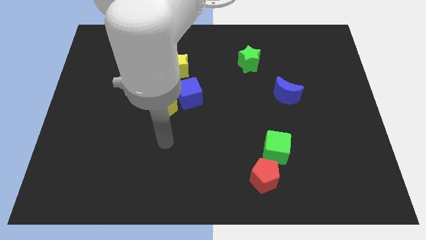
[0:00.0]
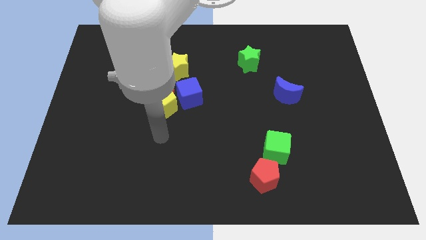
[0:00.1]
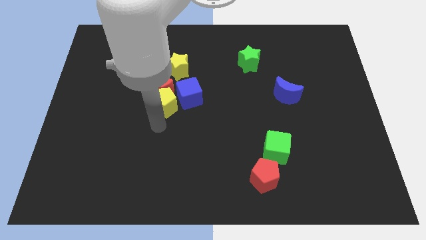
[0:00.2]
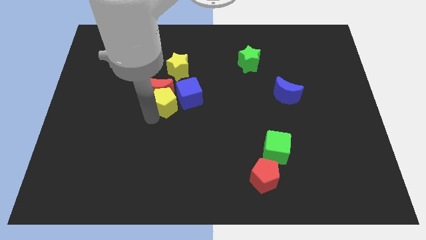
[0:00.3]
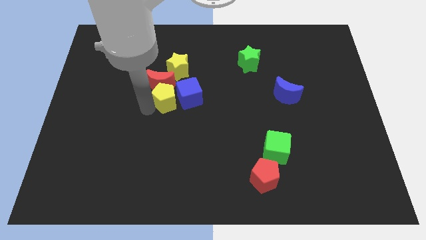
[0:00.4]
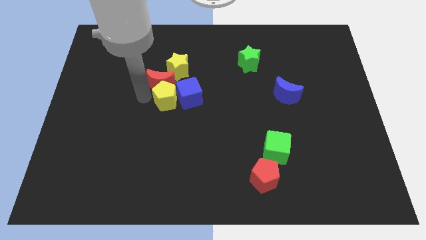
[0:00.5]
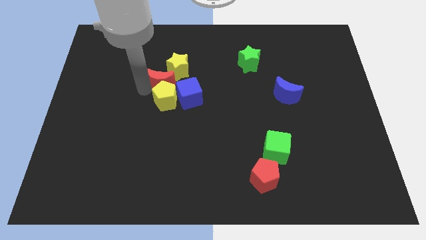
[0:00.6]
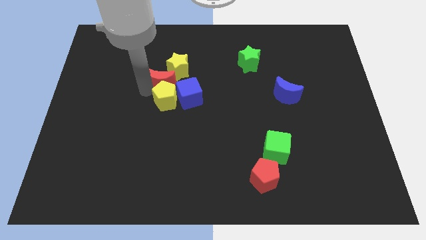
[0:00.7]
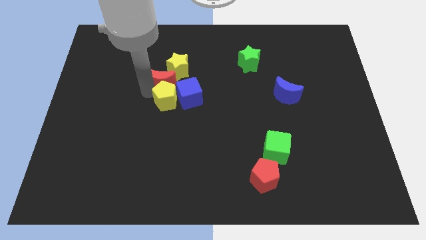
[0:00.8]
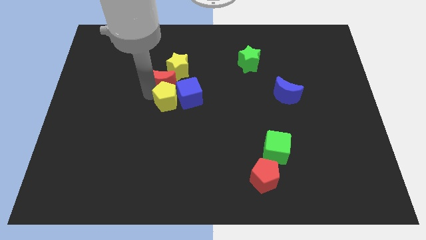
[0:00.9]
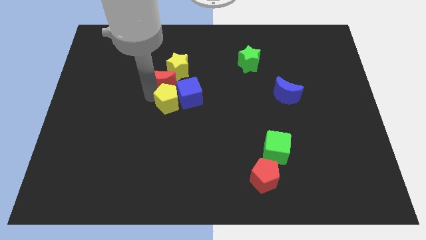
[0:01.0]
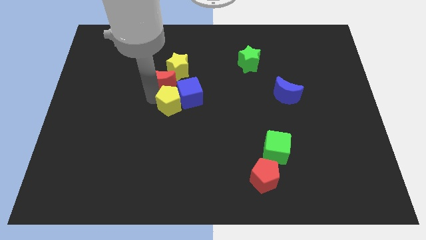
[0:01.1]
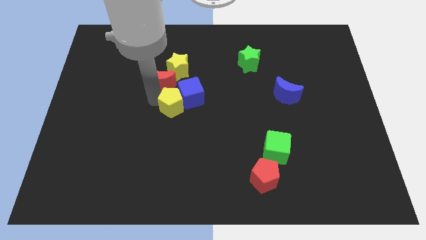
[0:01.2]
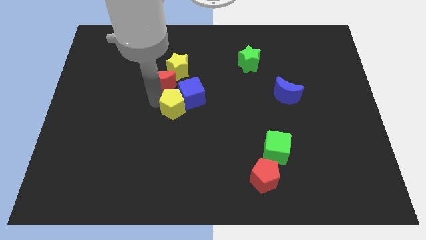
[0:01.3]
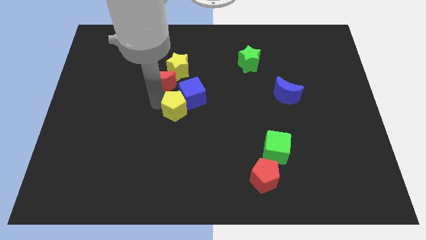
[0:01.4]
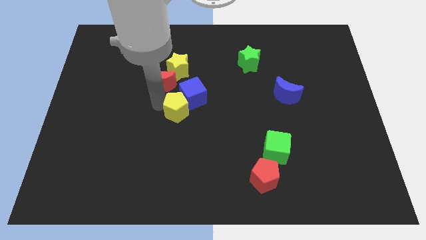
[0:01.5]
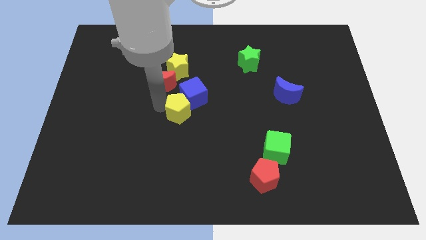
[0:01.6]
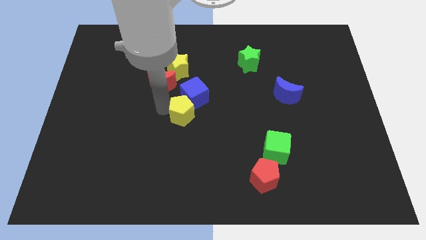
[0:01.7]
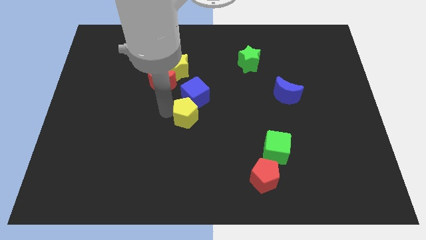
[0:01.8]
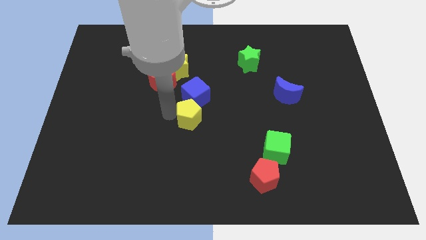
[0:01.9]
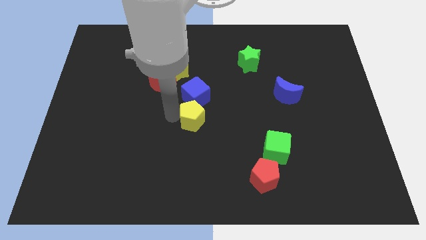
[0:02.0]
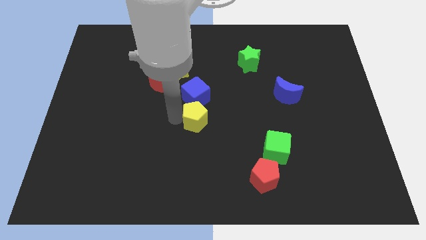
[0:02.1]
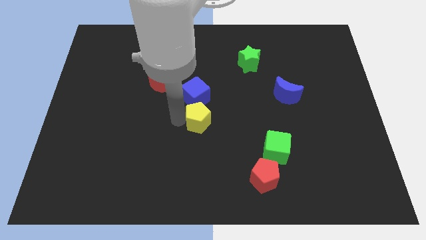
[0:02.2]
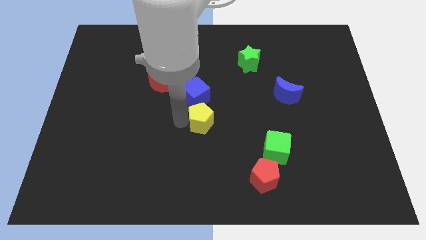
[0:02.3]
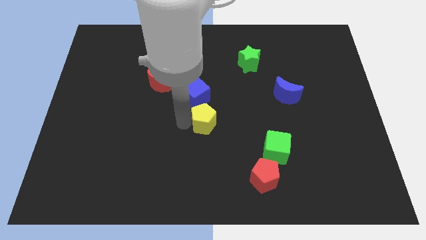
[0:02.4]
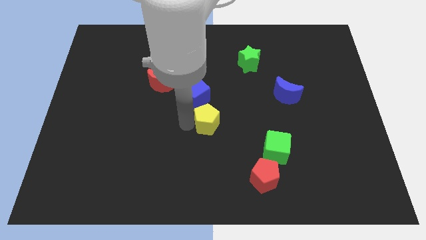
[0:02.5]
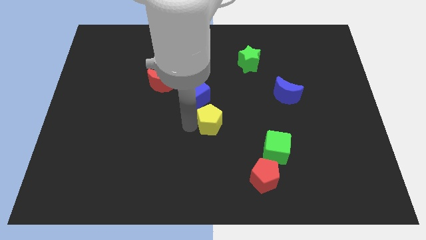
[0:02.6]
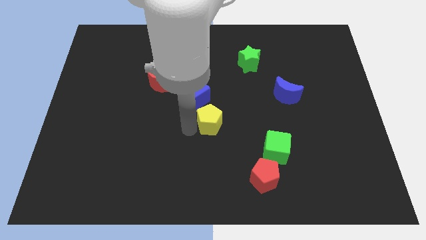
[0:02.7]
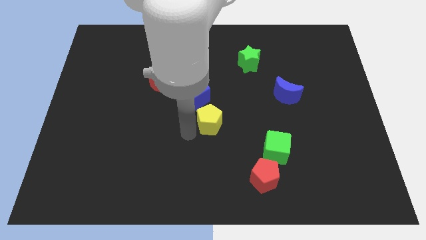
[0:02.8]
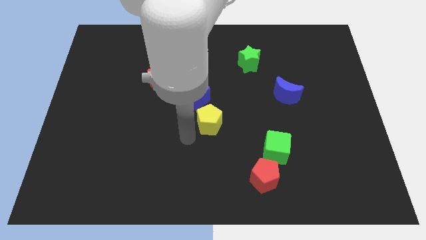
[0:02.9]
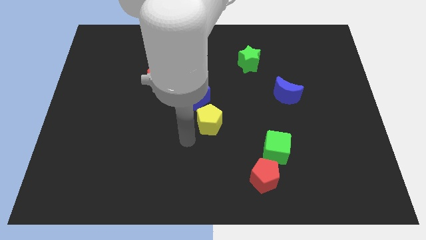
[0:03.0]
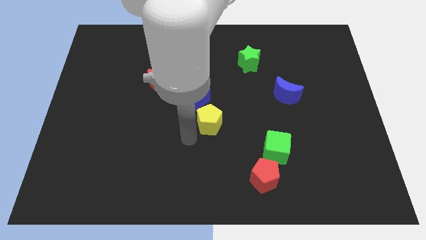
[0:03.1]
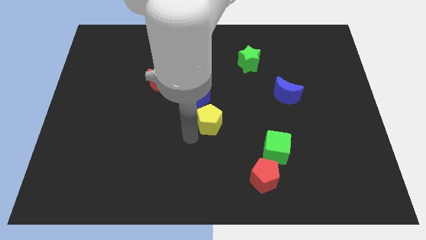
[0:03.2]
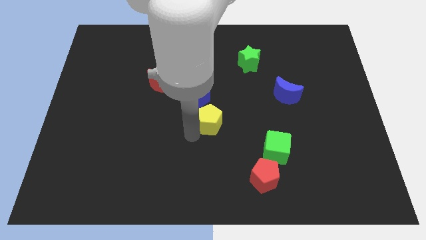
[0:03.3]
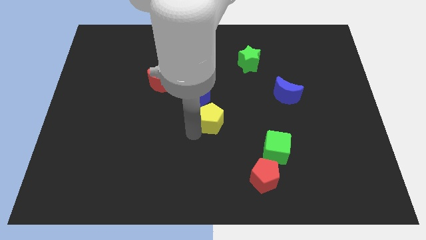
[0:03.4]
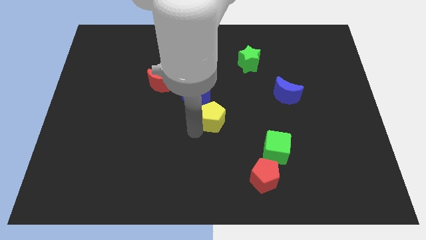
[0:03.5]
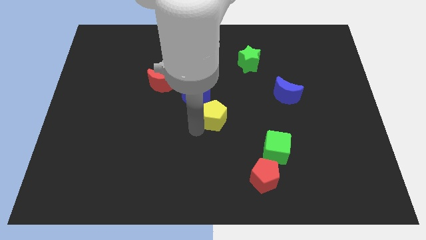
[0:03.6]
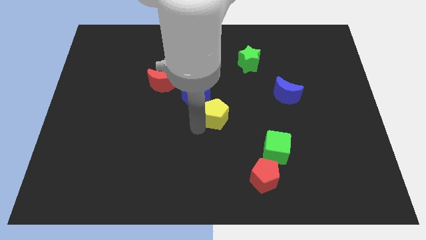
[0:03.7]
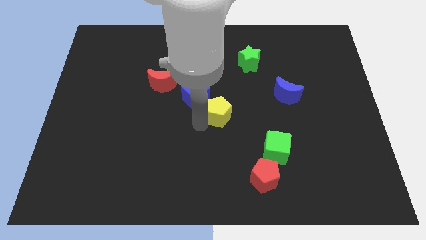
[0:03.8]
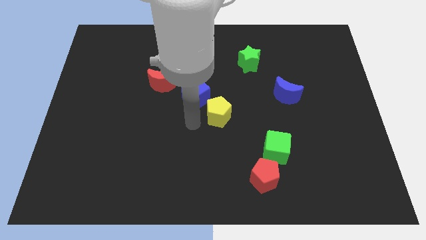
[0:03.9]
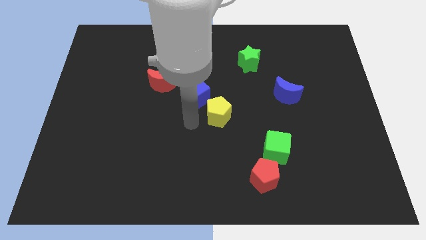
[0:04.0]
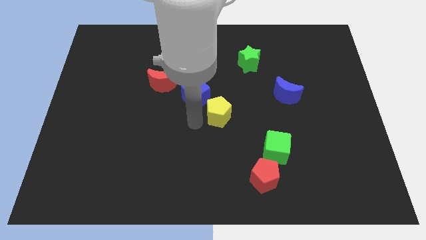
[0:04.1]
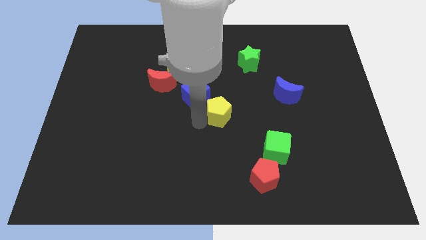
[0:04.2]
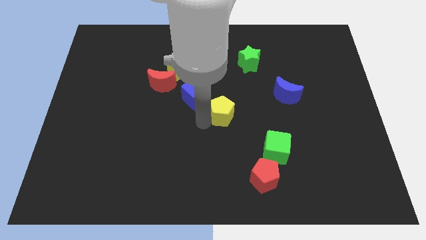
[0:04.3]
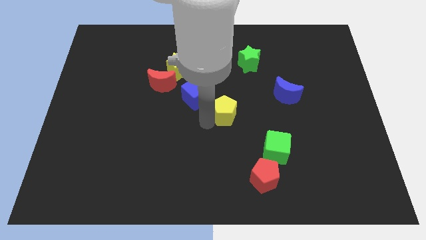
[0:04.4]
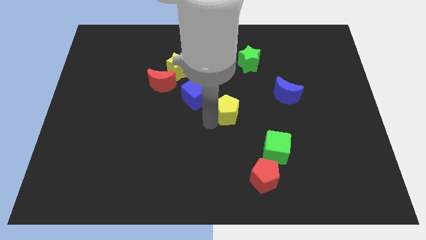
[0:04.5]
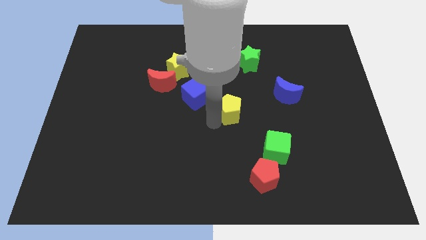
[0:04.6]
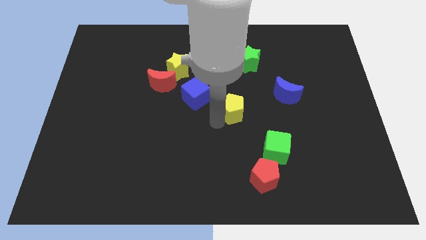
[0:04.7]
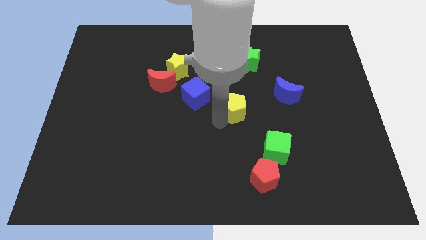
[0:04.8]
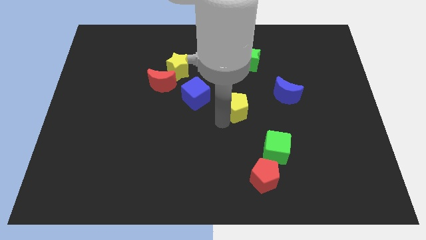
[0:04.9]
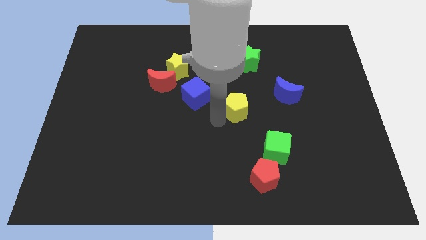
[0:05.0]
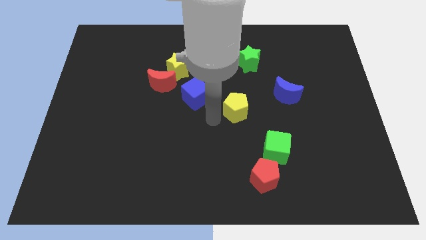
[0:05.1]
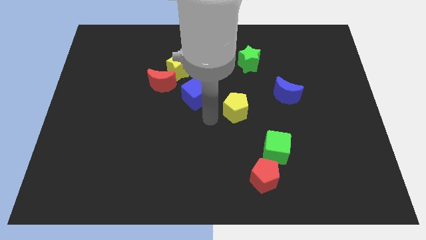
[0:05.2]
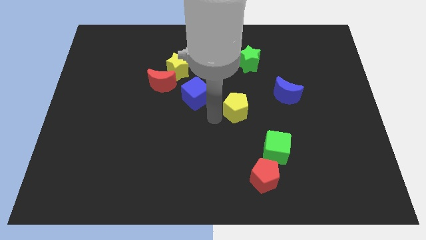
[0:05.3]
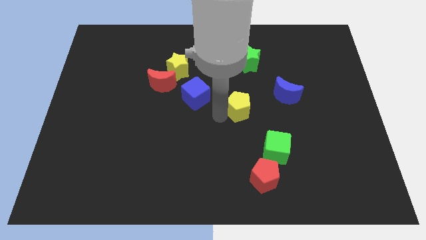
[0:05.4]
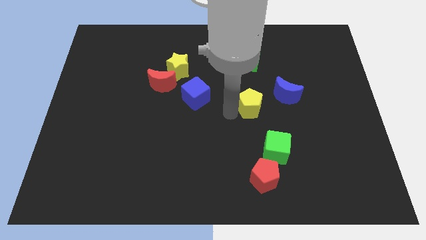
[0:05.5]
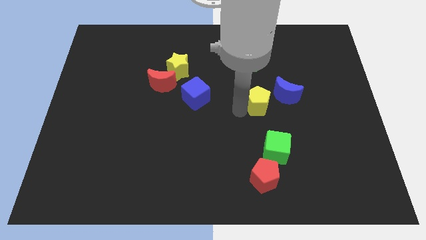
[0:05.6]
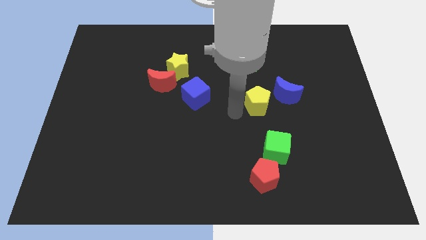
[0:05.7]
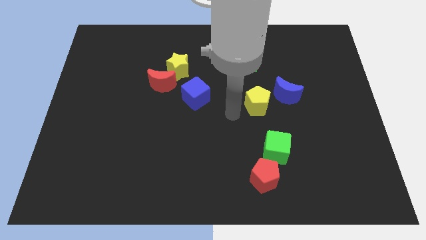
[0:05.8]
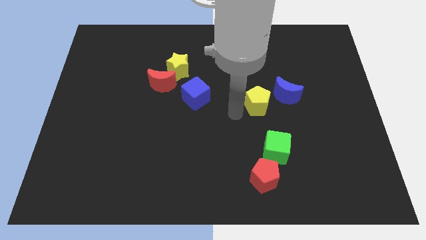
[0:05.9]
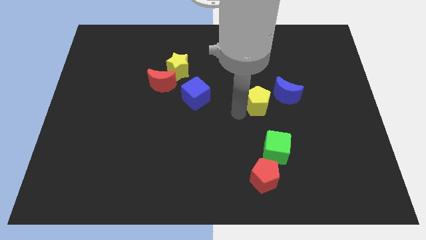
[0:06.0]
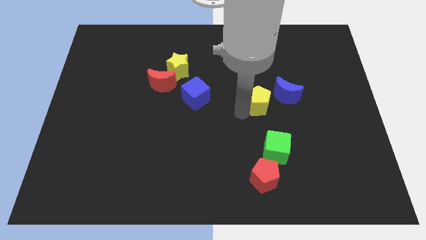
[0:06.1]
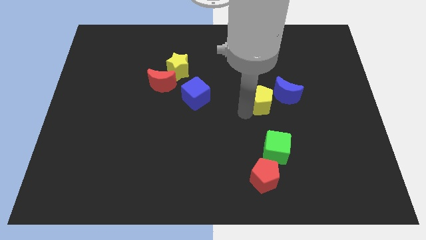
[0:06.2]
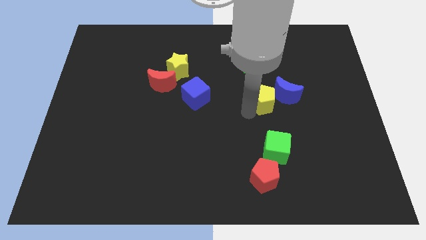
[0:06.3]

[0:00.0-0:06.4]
move the yellow pentagon to the blue moon

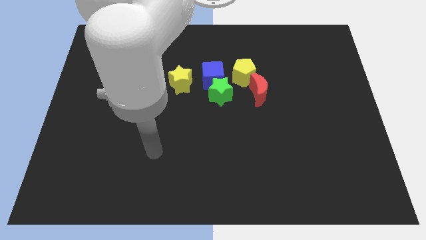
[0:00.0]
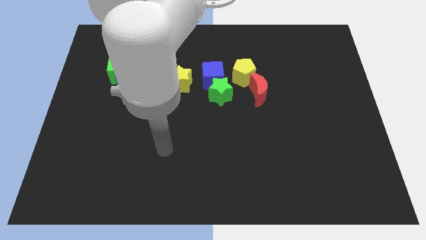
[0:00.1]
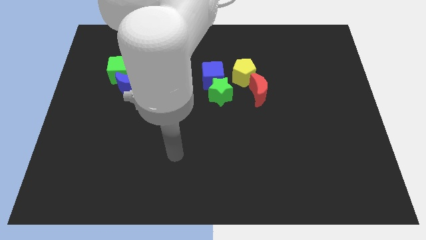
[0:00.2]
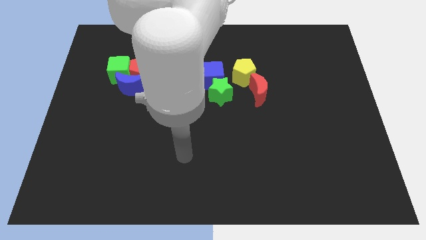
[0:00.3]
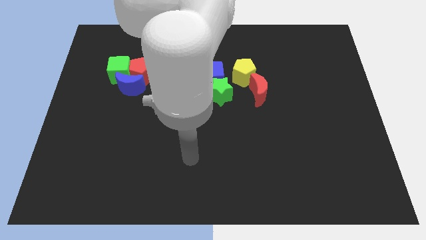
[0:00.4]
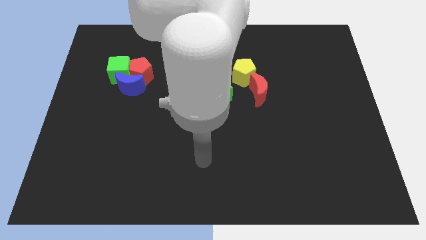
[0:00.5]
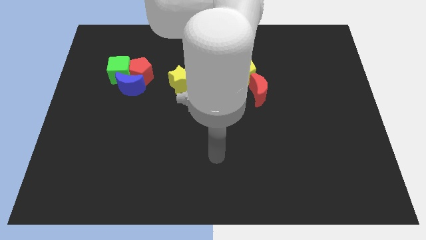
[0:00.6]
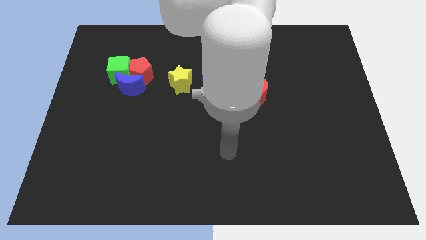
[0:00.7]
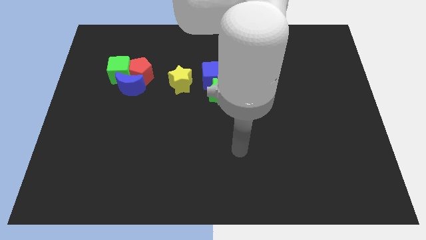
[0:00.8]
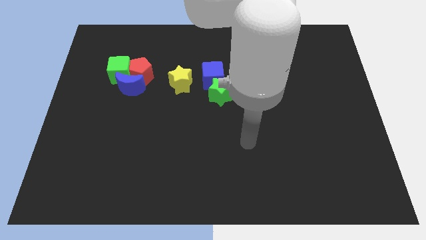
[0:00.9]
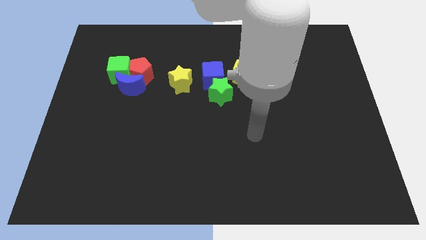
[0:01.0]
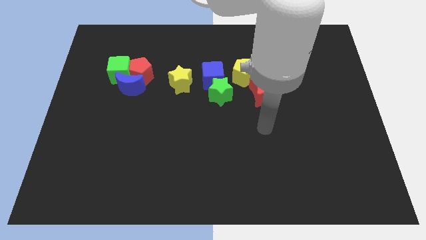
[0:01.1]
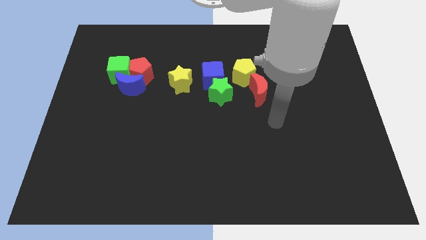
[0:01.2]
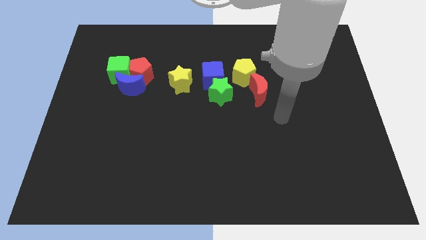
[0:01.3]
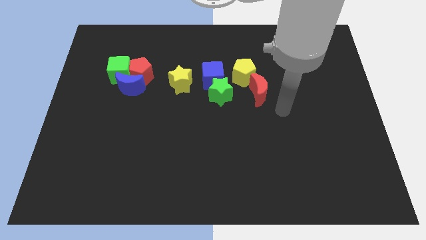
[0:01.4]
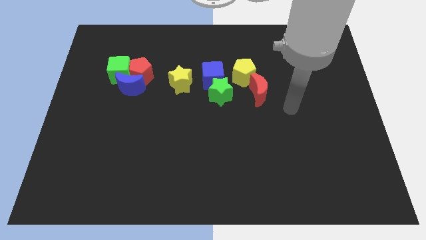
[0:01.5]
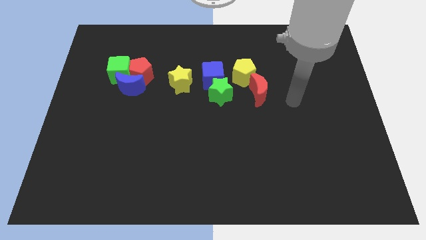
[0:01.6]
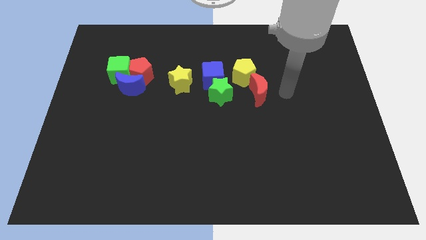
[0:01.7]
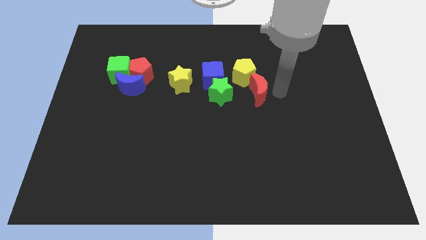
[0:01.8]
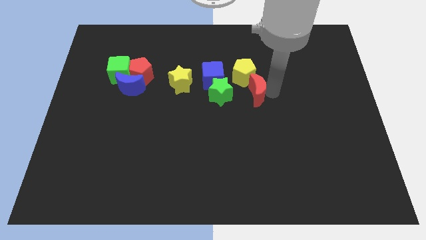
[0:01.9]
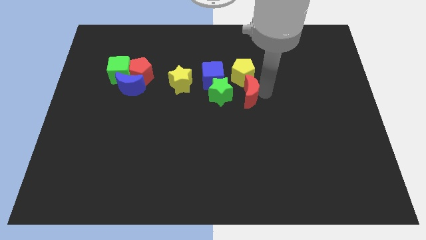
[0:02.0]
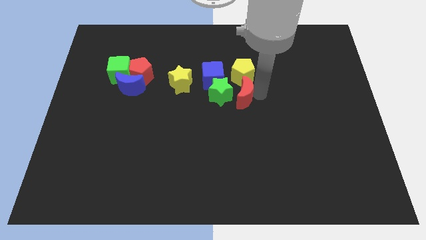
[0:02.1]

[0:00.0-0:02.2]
put the red moon close to the green star
